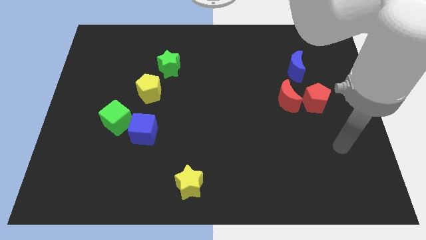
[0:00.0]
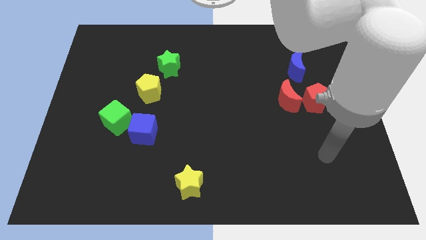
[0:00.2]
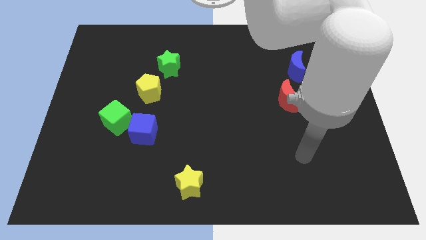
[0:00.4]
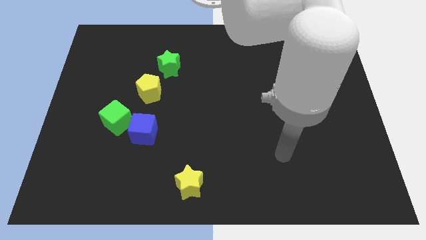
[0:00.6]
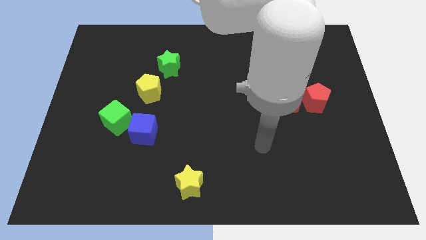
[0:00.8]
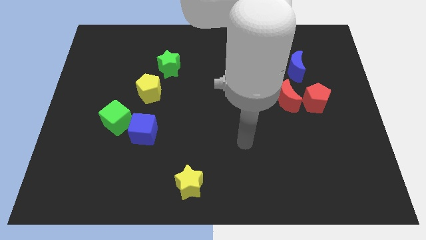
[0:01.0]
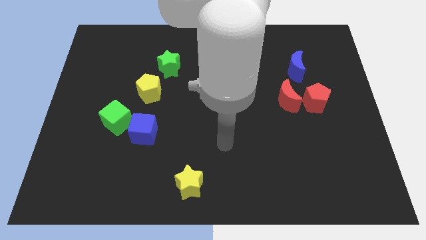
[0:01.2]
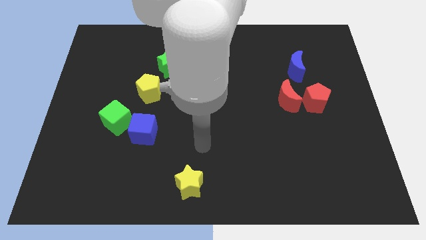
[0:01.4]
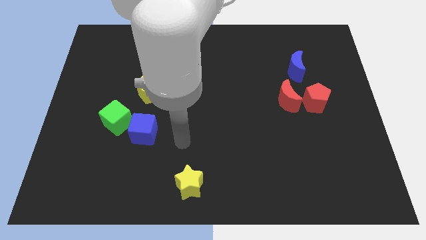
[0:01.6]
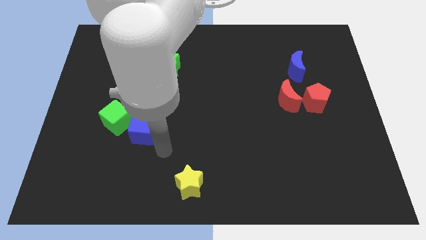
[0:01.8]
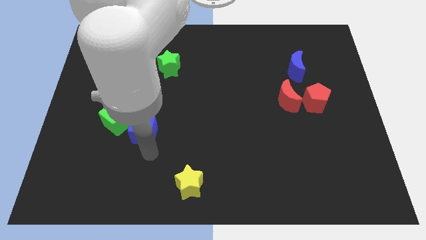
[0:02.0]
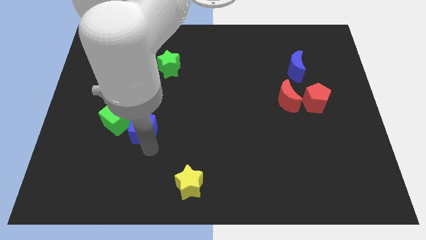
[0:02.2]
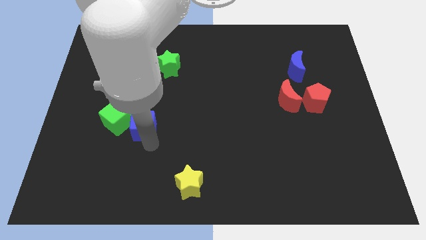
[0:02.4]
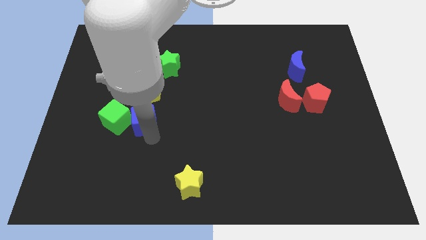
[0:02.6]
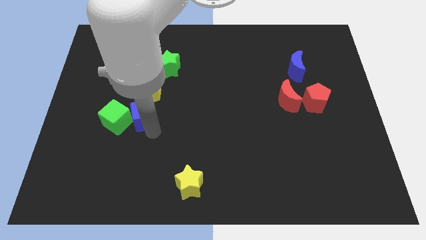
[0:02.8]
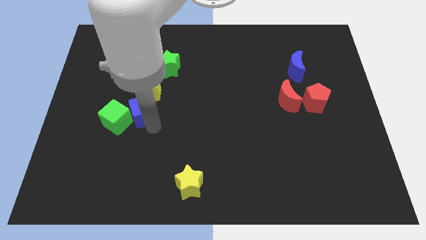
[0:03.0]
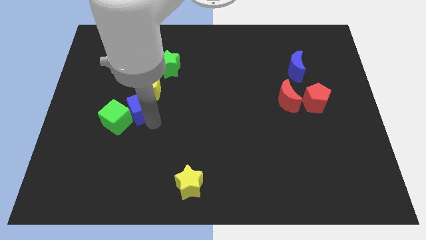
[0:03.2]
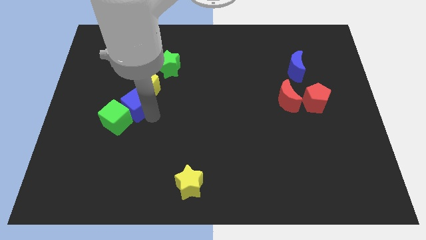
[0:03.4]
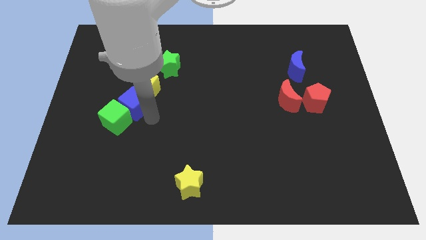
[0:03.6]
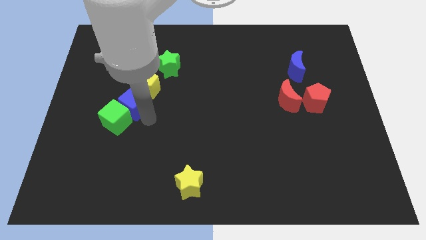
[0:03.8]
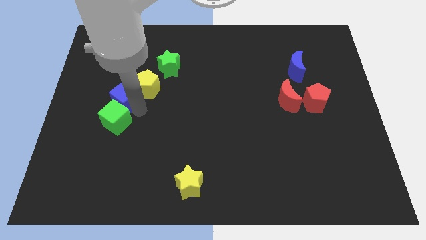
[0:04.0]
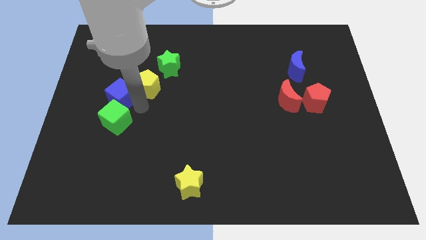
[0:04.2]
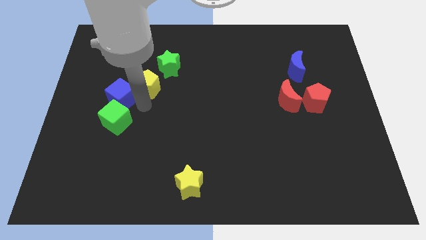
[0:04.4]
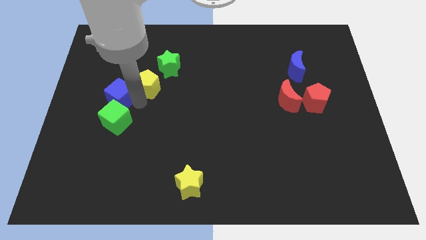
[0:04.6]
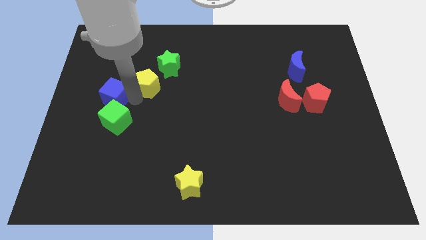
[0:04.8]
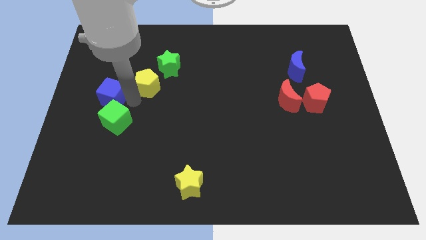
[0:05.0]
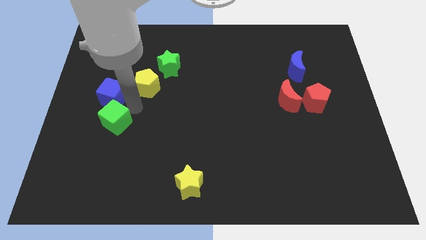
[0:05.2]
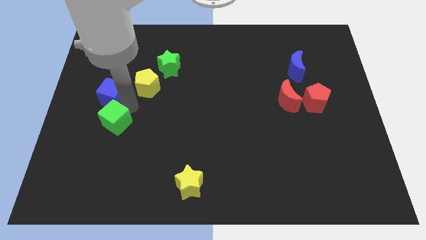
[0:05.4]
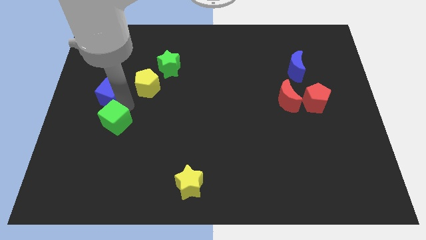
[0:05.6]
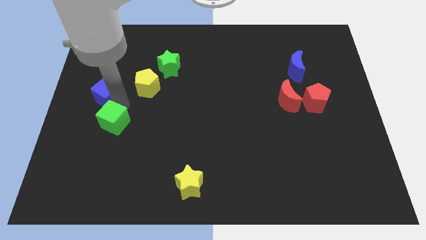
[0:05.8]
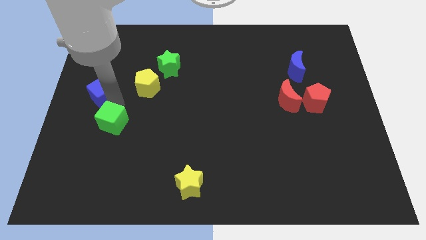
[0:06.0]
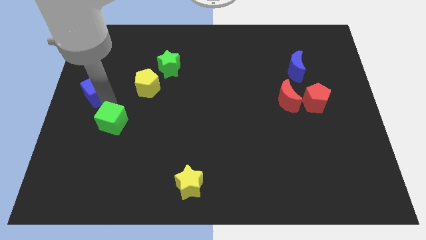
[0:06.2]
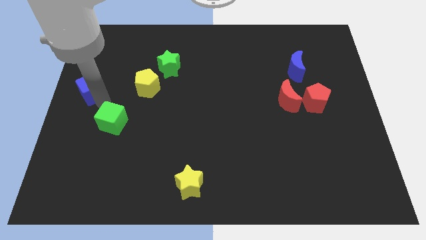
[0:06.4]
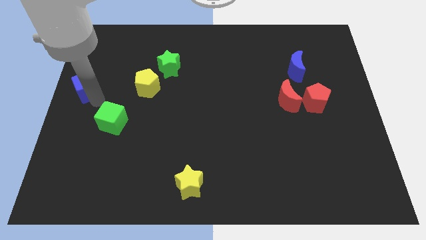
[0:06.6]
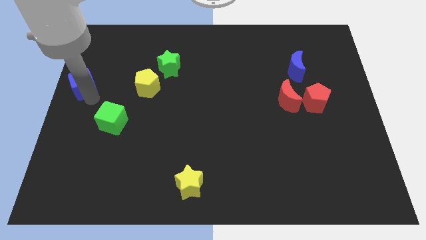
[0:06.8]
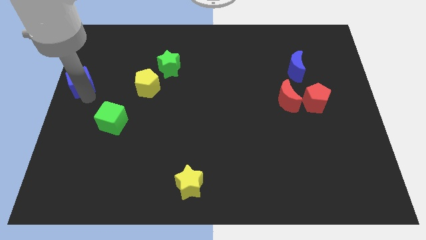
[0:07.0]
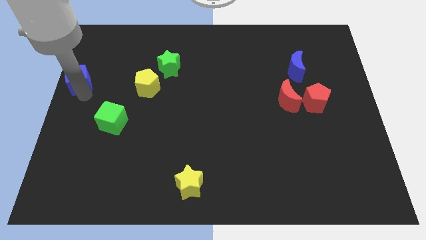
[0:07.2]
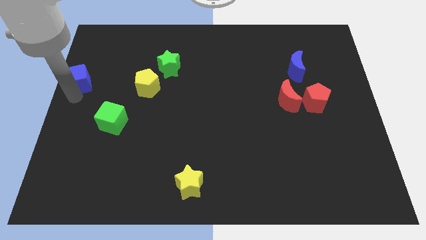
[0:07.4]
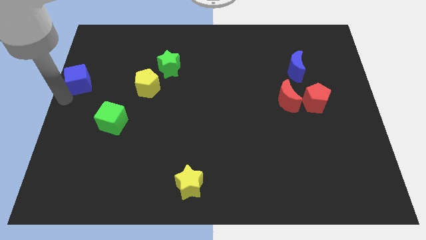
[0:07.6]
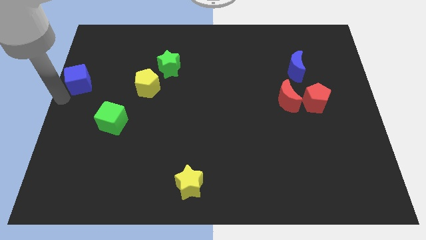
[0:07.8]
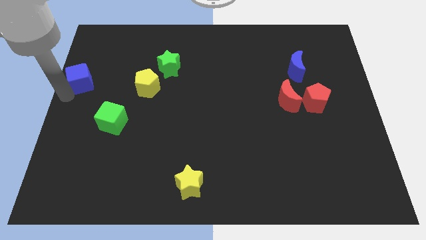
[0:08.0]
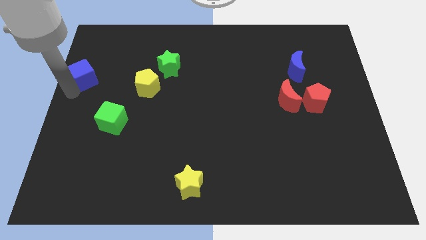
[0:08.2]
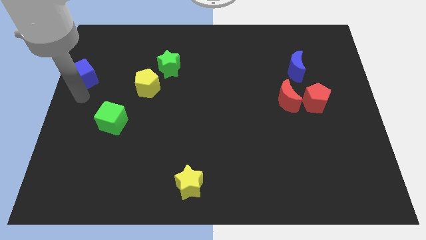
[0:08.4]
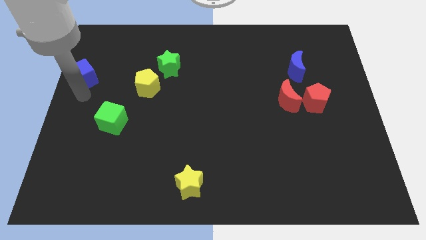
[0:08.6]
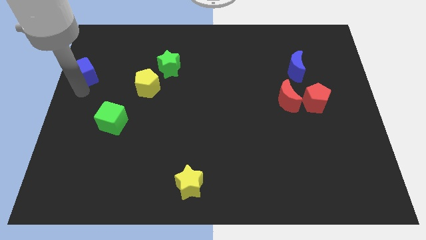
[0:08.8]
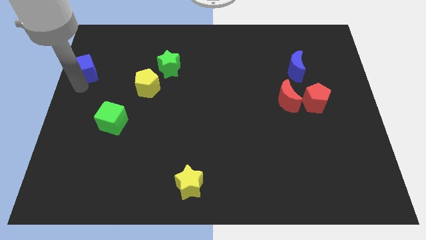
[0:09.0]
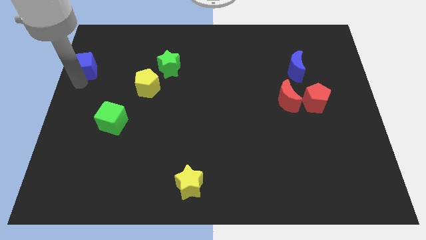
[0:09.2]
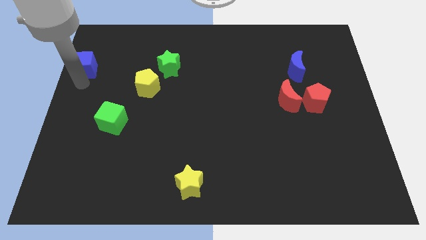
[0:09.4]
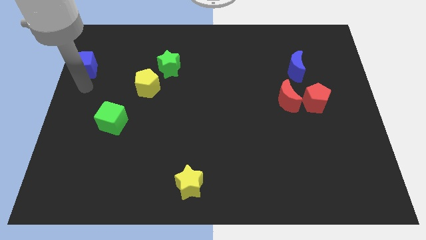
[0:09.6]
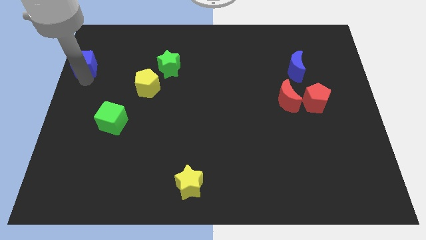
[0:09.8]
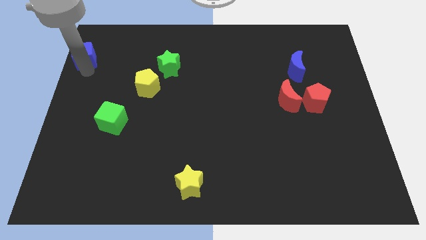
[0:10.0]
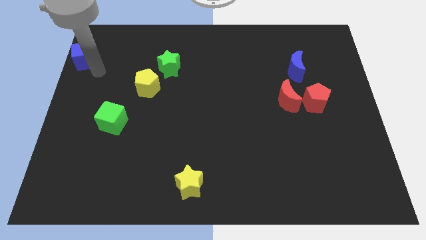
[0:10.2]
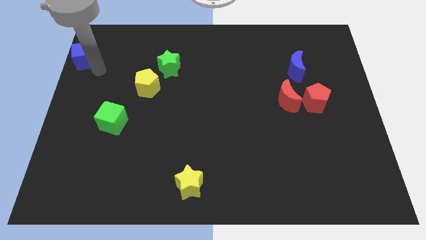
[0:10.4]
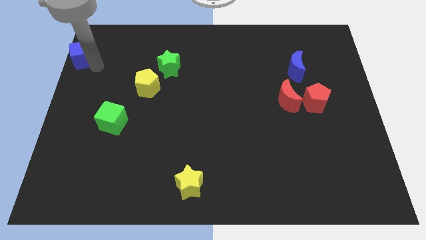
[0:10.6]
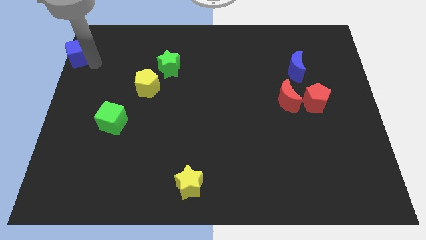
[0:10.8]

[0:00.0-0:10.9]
slide the blue cube to the top left of the board
